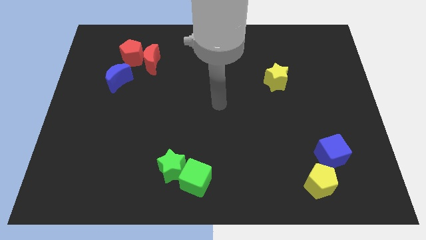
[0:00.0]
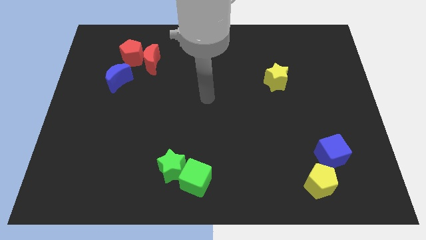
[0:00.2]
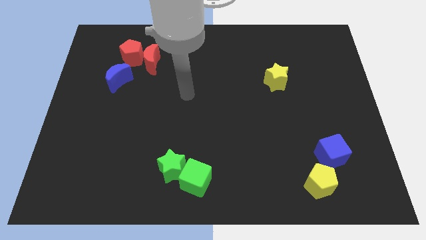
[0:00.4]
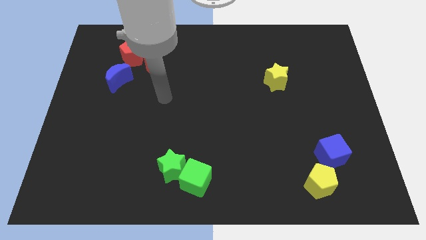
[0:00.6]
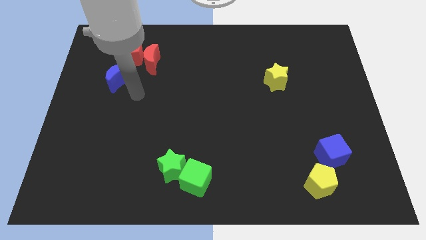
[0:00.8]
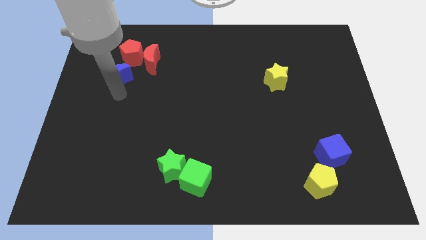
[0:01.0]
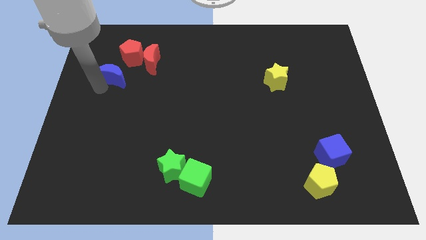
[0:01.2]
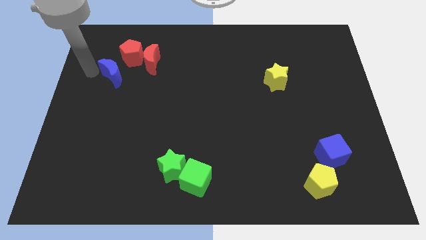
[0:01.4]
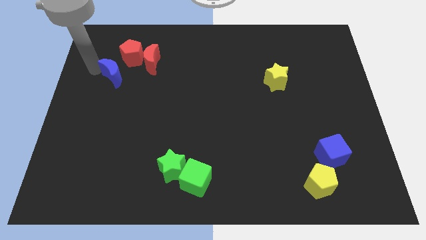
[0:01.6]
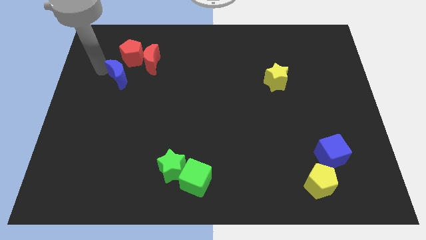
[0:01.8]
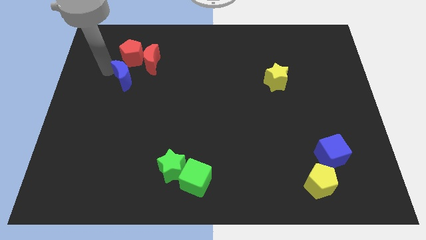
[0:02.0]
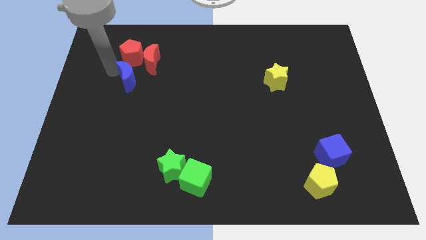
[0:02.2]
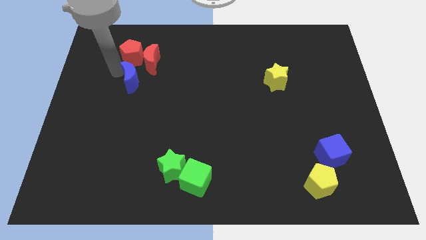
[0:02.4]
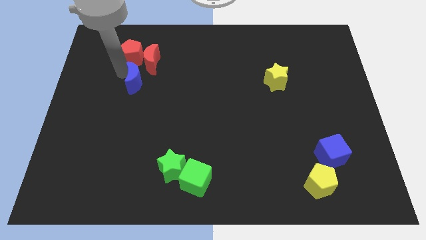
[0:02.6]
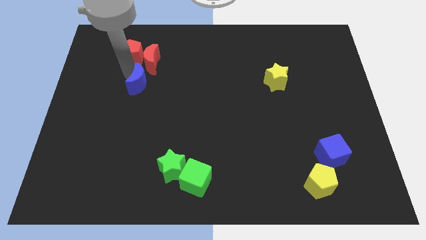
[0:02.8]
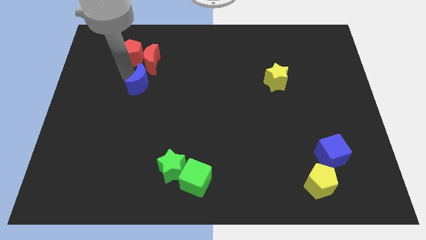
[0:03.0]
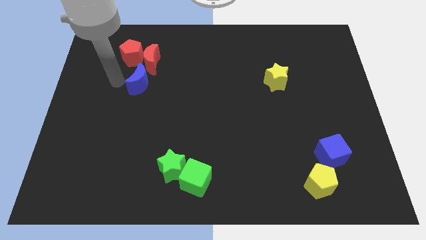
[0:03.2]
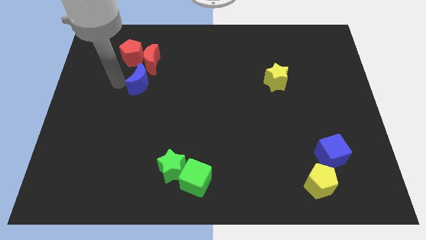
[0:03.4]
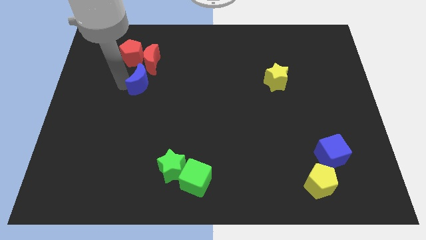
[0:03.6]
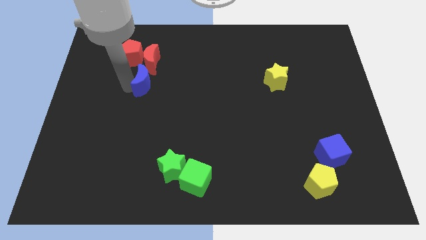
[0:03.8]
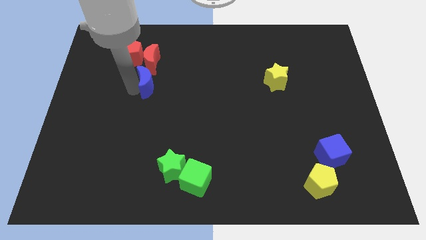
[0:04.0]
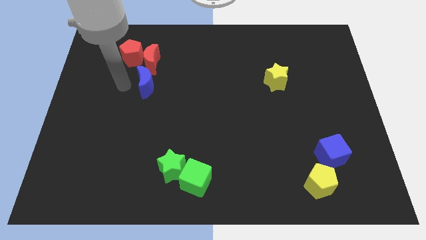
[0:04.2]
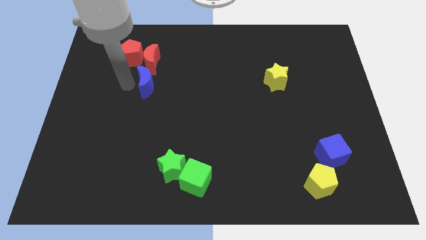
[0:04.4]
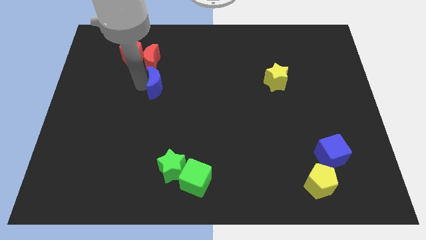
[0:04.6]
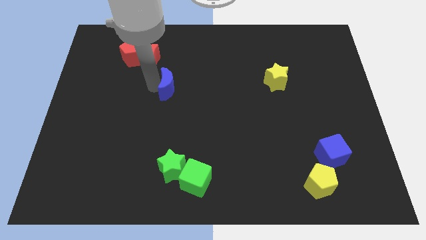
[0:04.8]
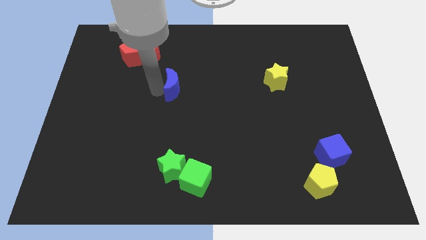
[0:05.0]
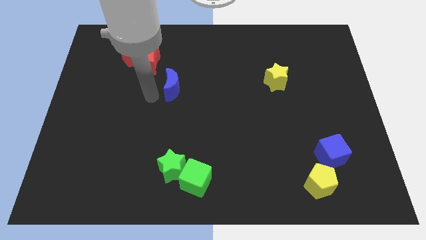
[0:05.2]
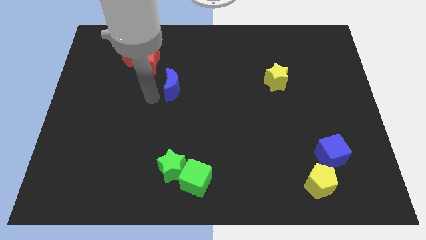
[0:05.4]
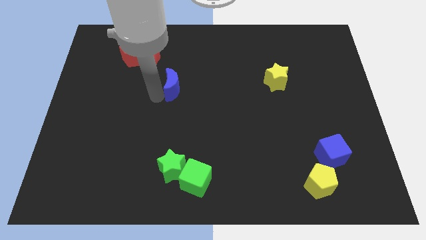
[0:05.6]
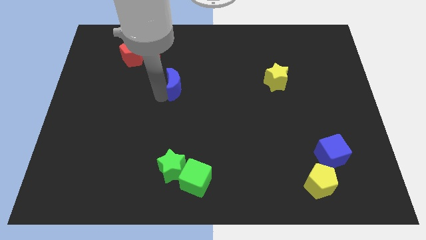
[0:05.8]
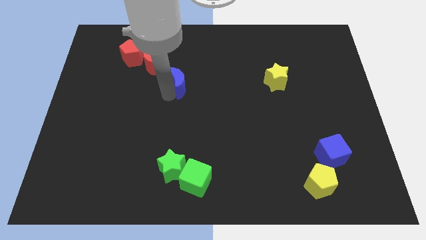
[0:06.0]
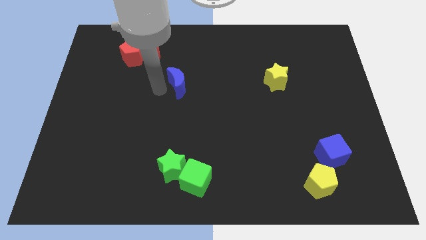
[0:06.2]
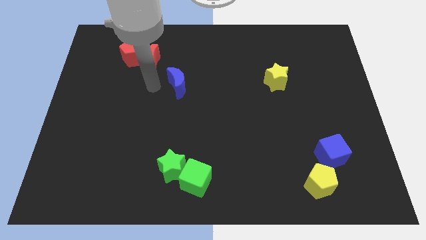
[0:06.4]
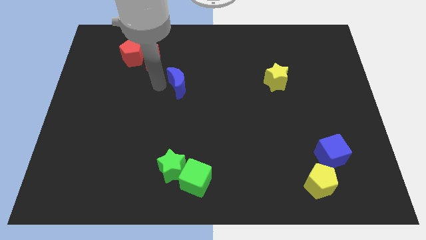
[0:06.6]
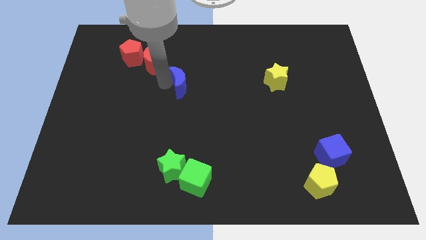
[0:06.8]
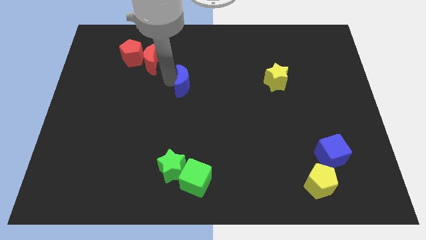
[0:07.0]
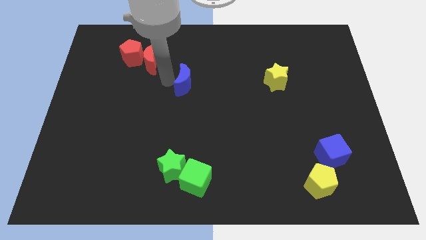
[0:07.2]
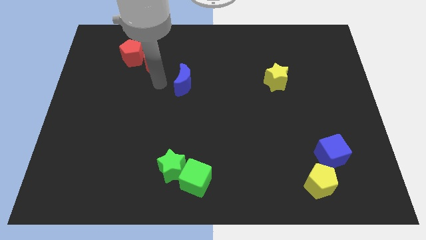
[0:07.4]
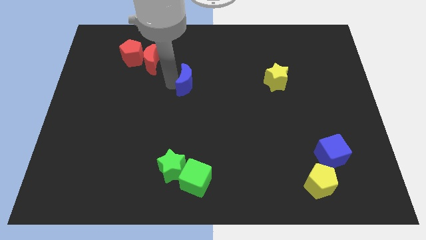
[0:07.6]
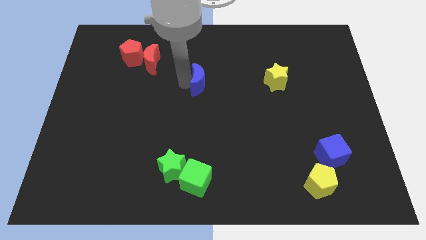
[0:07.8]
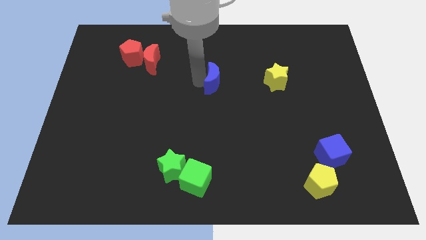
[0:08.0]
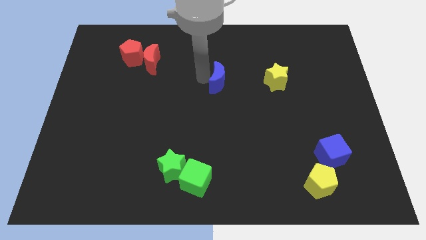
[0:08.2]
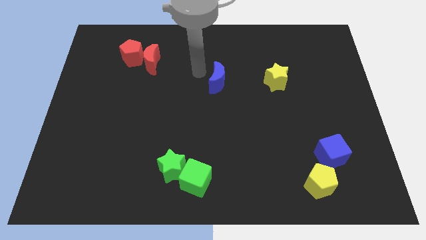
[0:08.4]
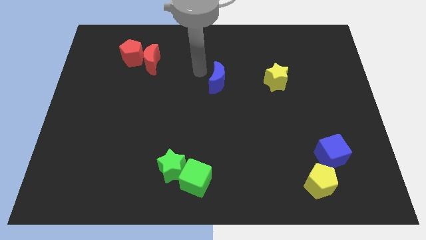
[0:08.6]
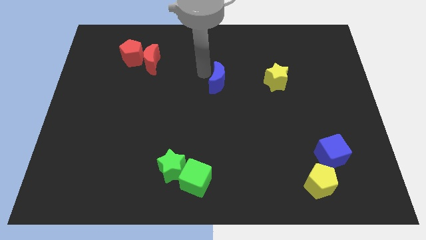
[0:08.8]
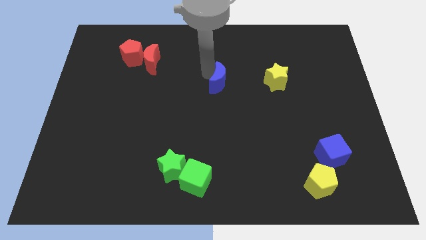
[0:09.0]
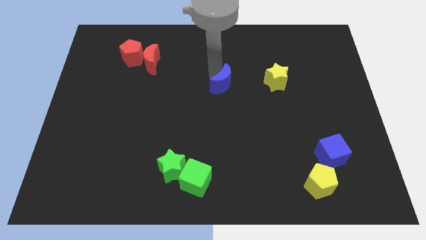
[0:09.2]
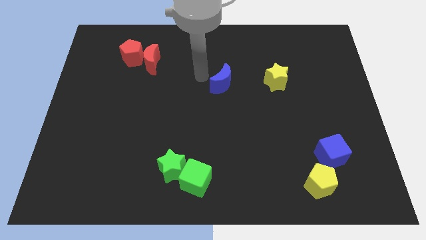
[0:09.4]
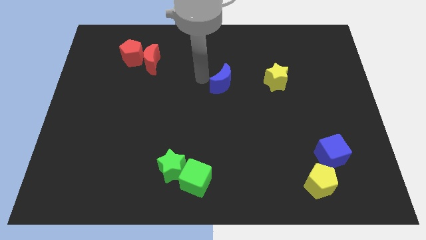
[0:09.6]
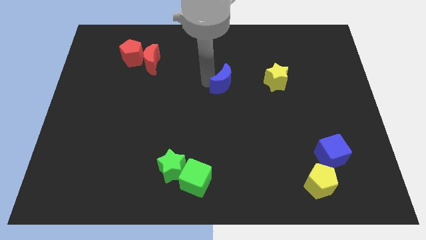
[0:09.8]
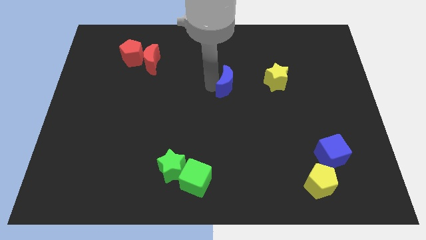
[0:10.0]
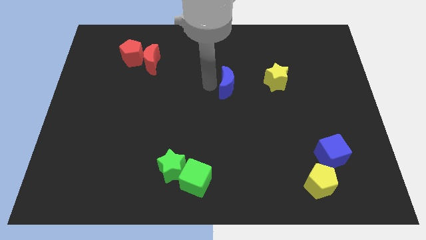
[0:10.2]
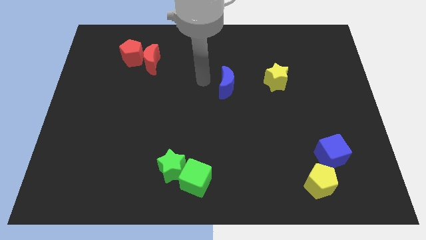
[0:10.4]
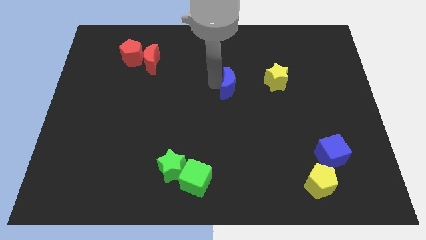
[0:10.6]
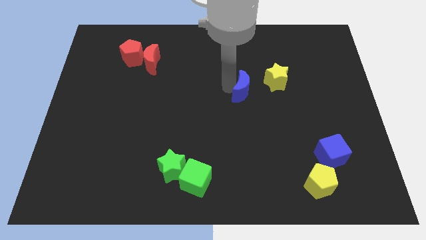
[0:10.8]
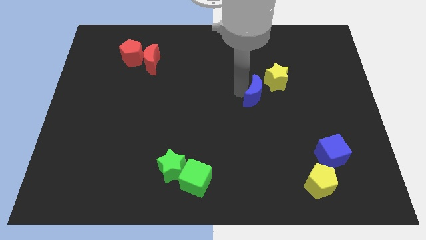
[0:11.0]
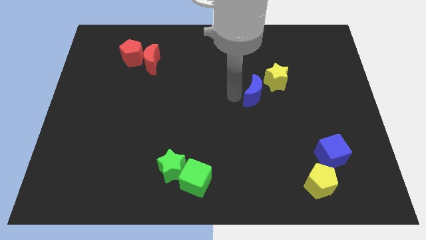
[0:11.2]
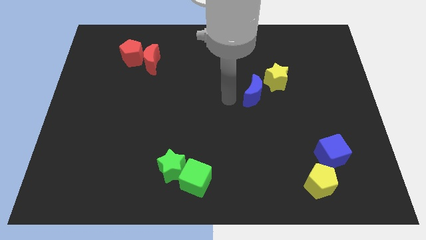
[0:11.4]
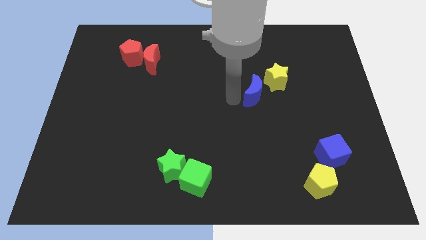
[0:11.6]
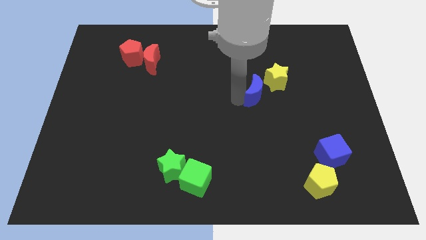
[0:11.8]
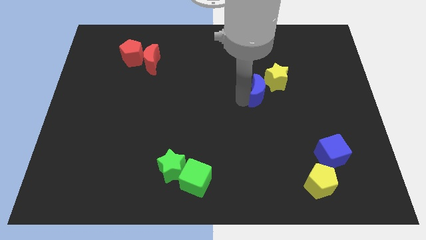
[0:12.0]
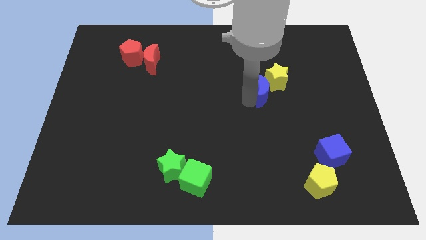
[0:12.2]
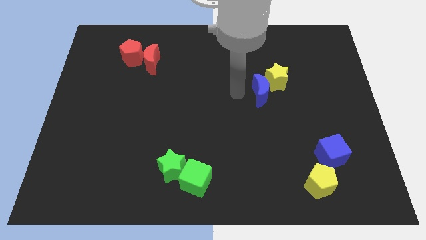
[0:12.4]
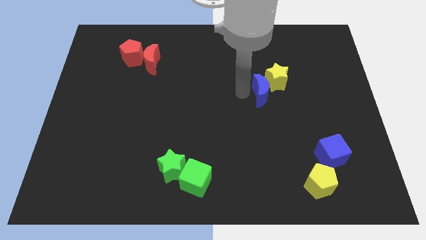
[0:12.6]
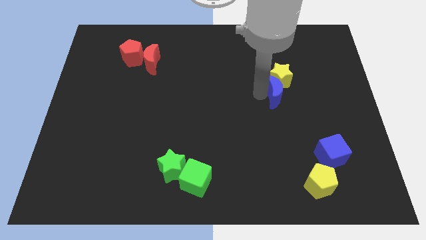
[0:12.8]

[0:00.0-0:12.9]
move the blue moon diagonally down and to the right of the yellow star

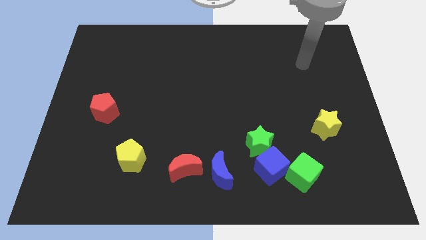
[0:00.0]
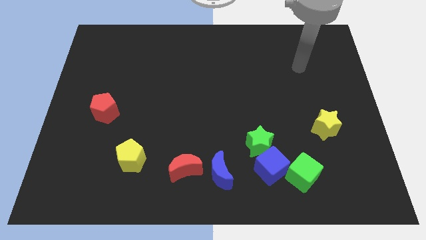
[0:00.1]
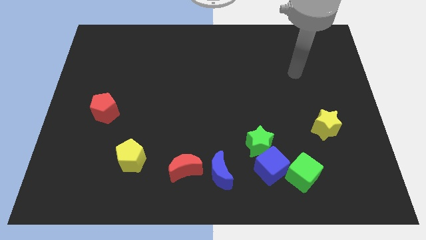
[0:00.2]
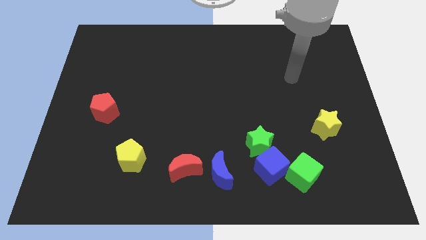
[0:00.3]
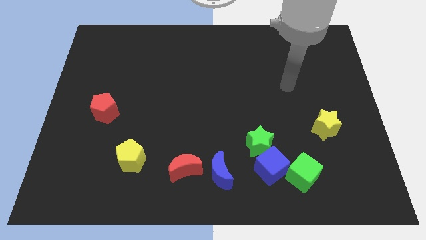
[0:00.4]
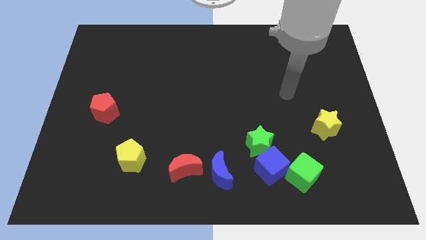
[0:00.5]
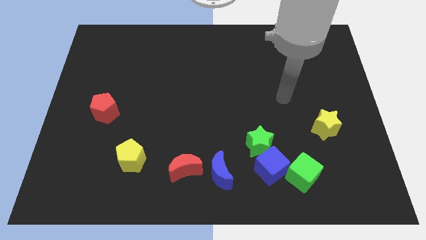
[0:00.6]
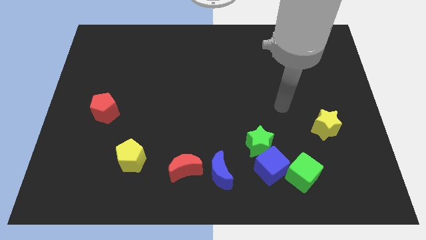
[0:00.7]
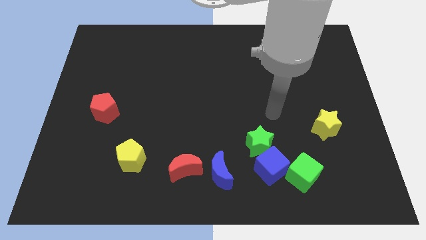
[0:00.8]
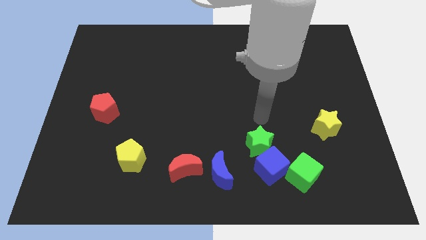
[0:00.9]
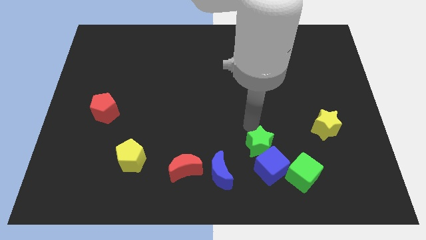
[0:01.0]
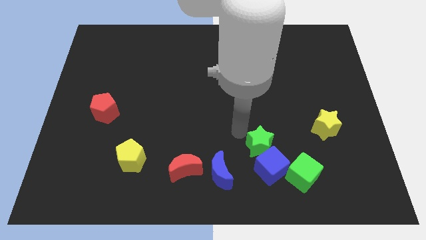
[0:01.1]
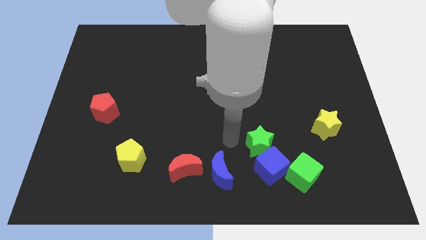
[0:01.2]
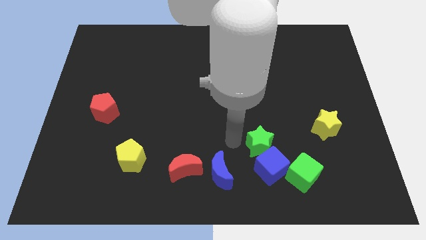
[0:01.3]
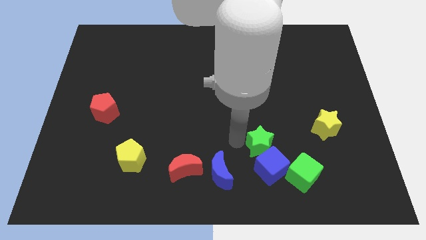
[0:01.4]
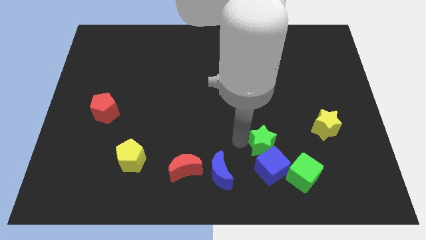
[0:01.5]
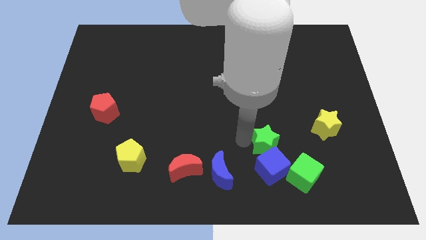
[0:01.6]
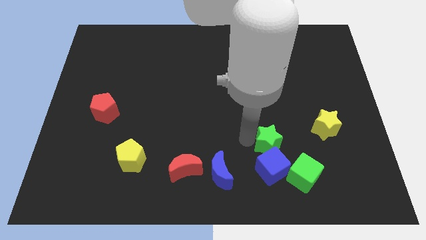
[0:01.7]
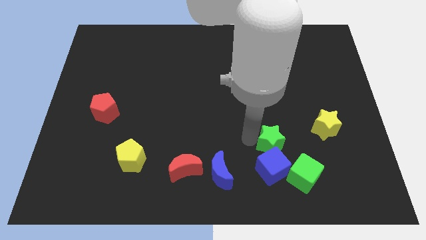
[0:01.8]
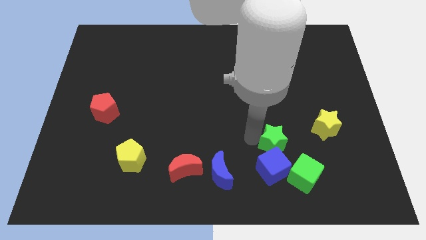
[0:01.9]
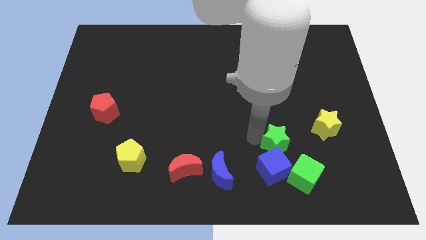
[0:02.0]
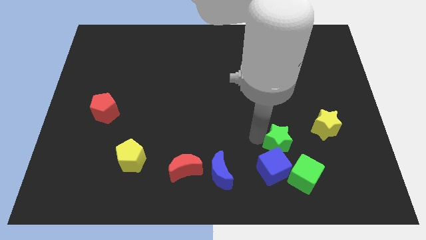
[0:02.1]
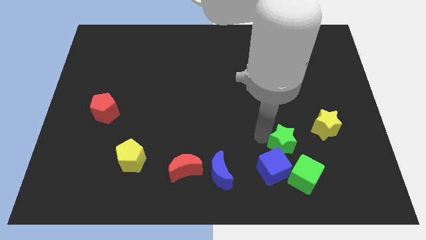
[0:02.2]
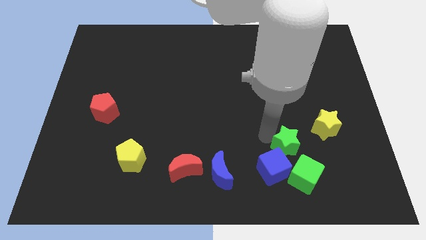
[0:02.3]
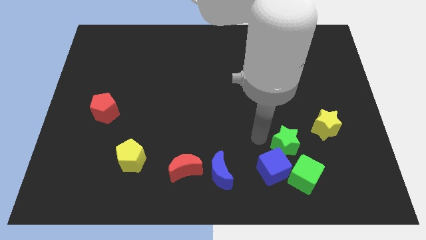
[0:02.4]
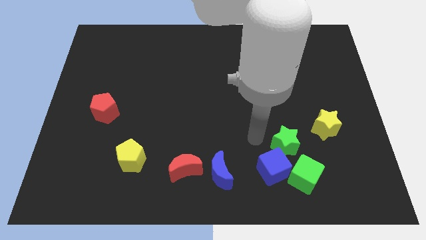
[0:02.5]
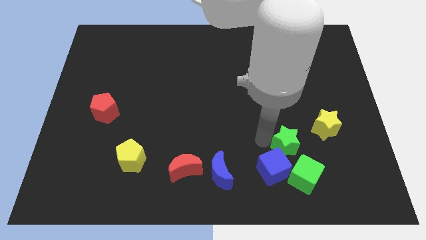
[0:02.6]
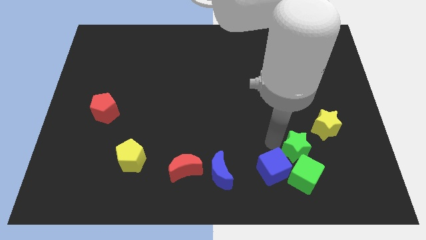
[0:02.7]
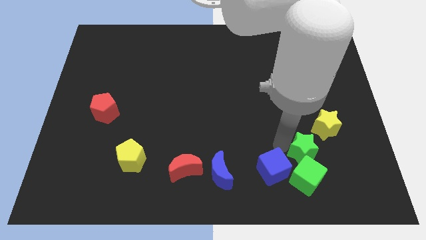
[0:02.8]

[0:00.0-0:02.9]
push the green star to the top right side of the green cube
